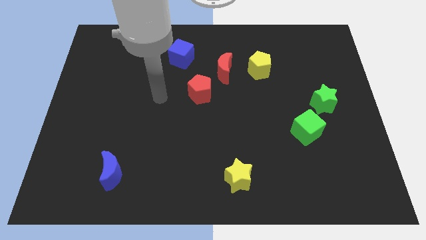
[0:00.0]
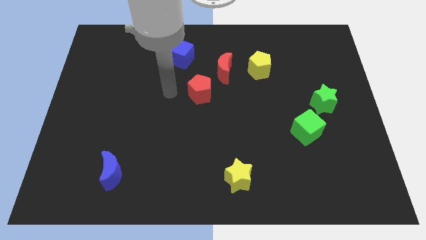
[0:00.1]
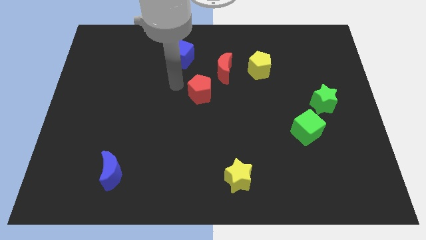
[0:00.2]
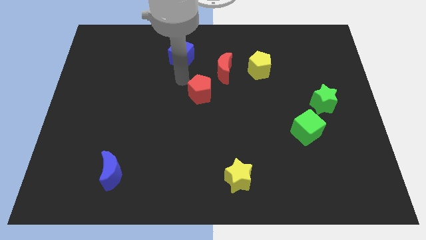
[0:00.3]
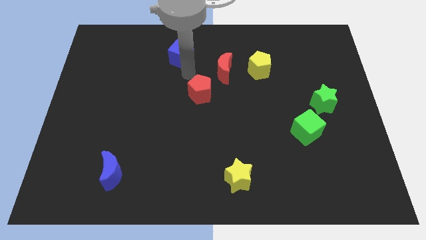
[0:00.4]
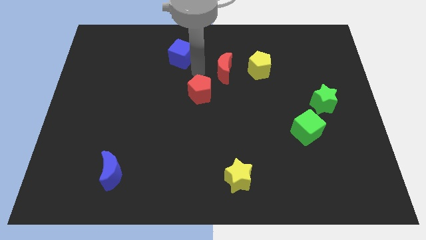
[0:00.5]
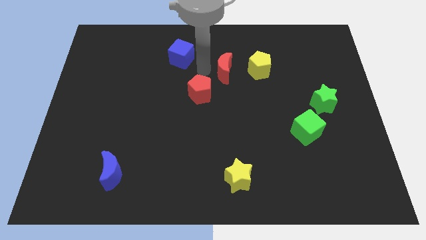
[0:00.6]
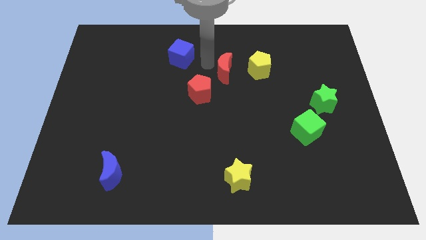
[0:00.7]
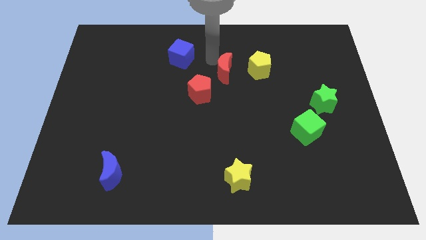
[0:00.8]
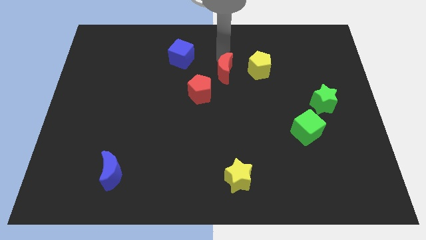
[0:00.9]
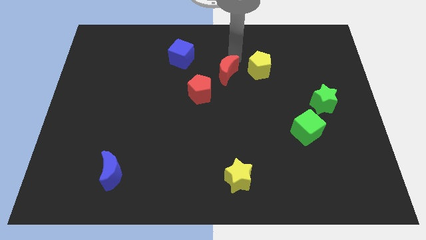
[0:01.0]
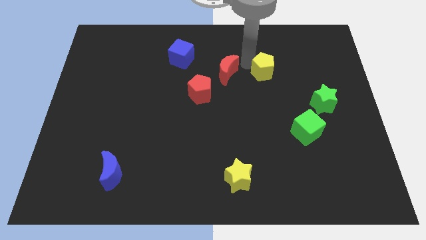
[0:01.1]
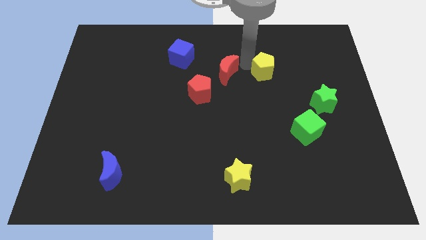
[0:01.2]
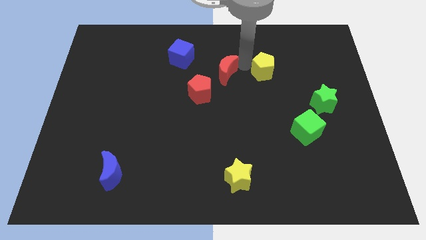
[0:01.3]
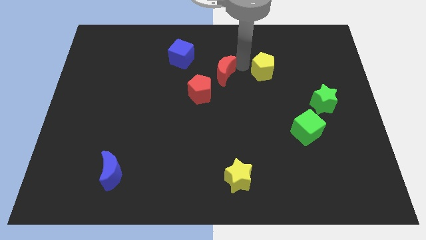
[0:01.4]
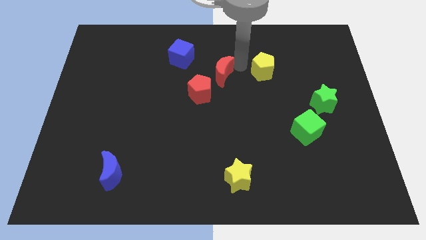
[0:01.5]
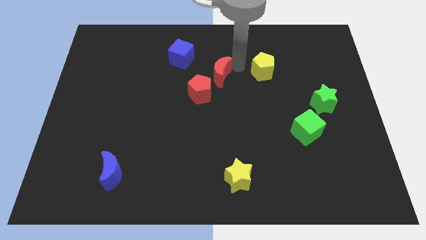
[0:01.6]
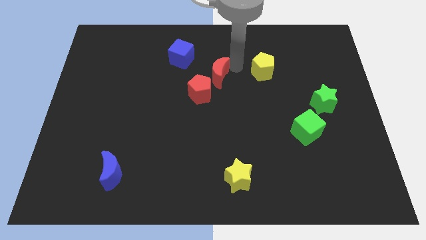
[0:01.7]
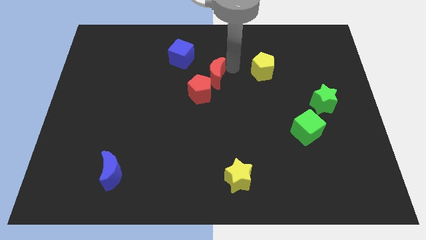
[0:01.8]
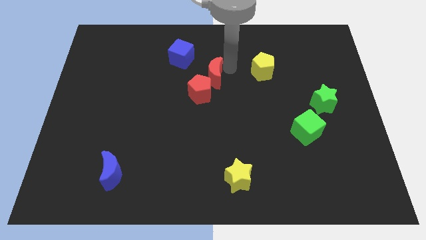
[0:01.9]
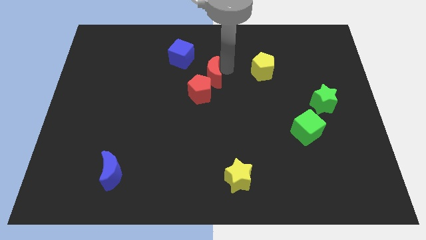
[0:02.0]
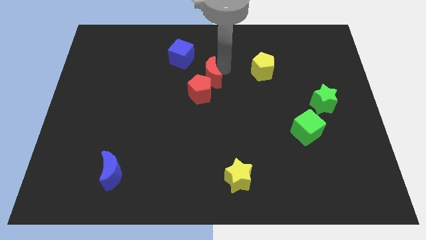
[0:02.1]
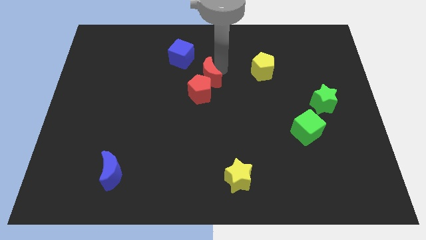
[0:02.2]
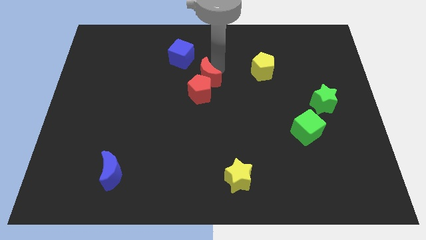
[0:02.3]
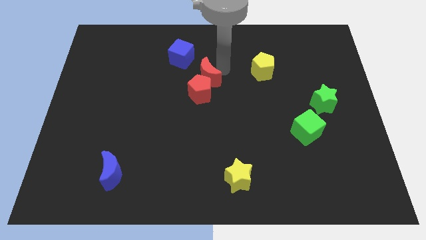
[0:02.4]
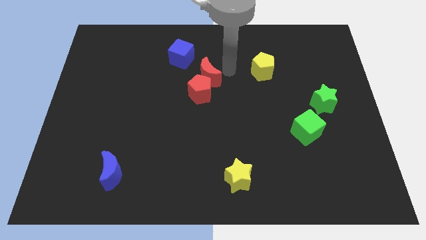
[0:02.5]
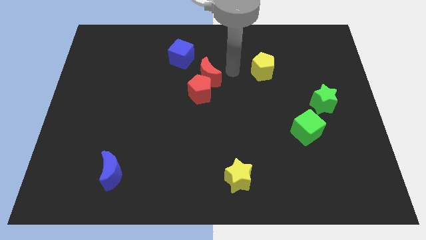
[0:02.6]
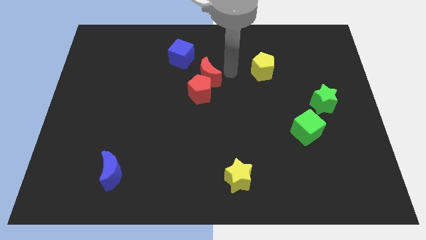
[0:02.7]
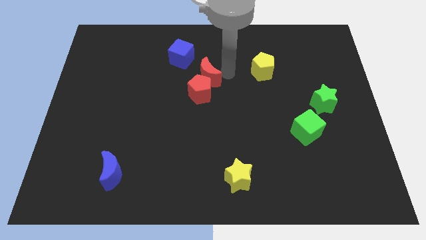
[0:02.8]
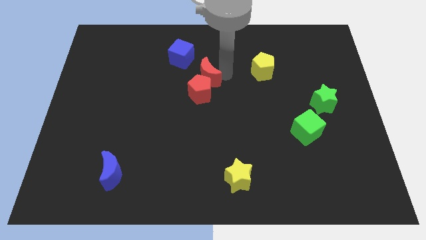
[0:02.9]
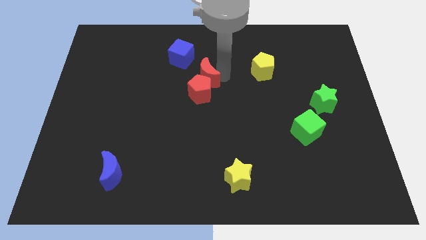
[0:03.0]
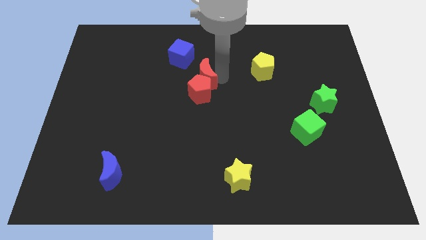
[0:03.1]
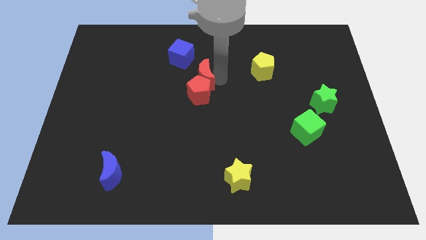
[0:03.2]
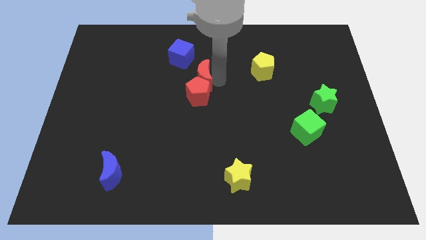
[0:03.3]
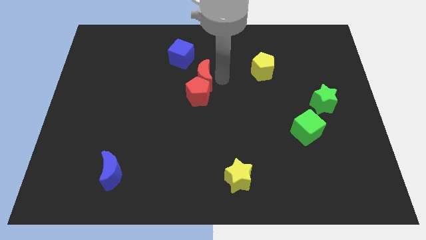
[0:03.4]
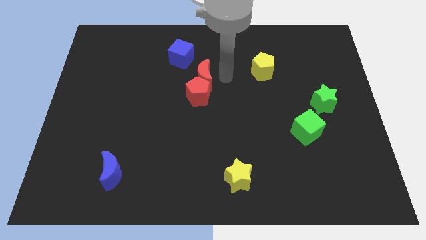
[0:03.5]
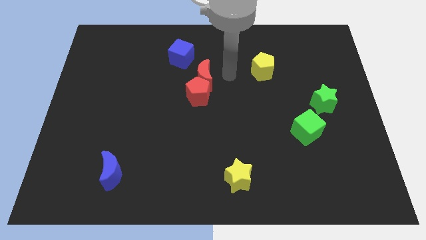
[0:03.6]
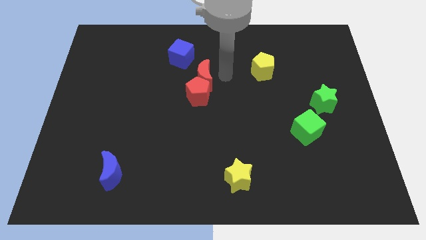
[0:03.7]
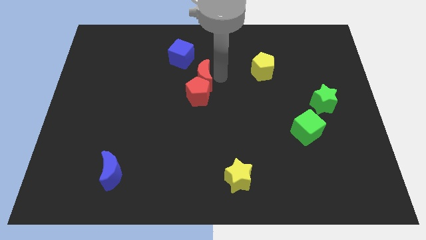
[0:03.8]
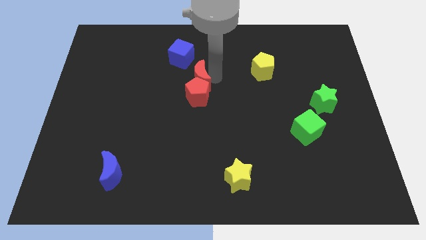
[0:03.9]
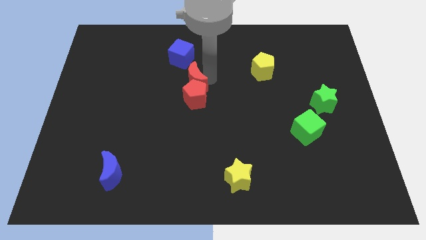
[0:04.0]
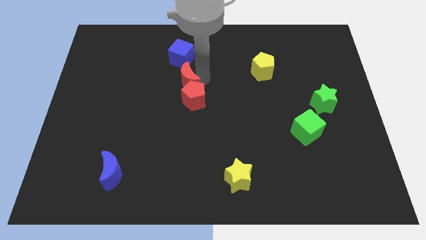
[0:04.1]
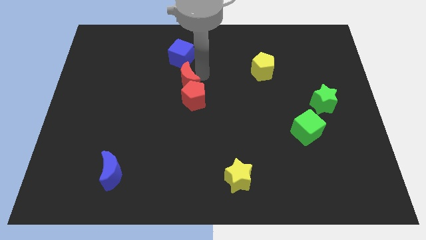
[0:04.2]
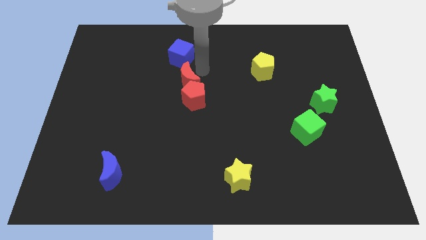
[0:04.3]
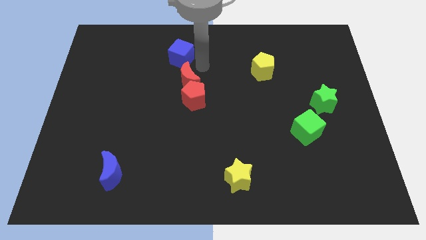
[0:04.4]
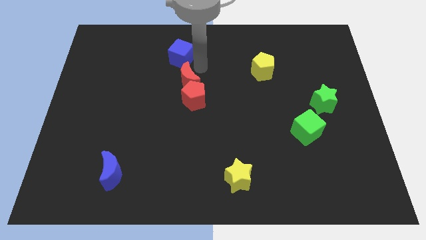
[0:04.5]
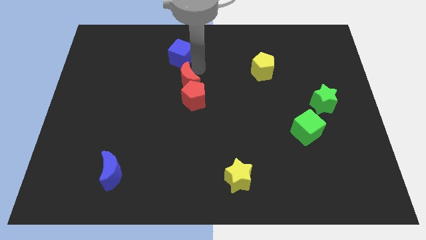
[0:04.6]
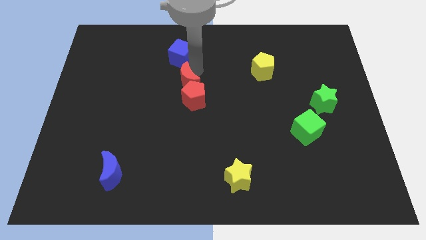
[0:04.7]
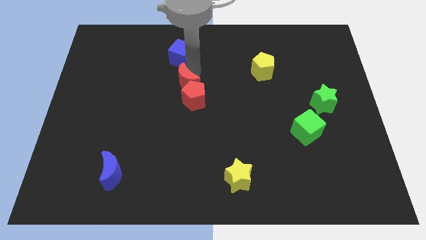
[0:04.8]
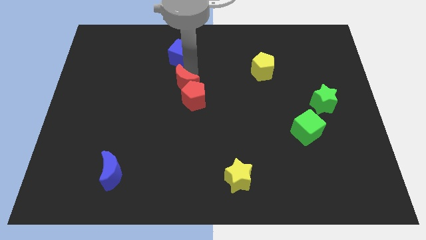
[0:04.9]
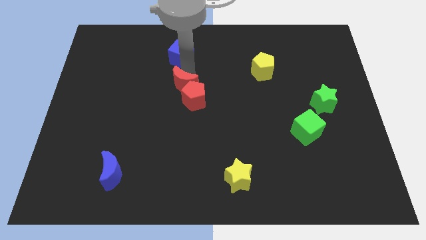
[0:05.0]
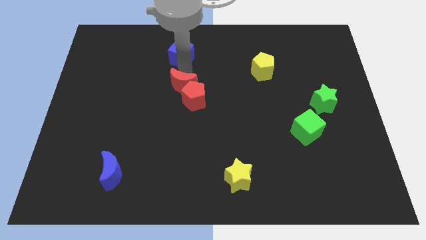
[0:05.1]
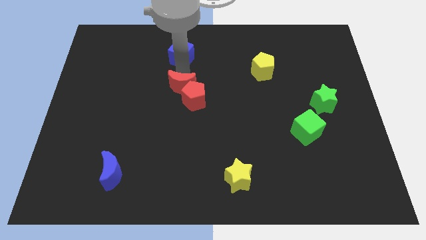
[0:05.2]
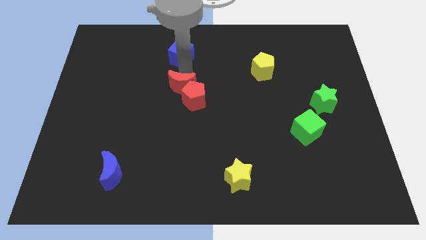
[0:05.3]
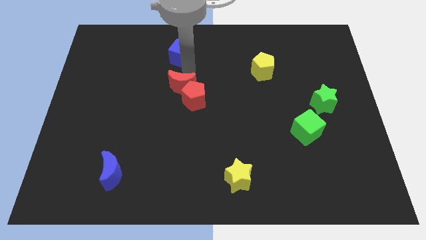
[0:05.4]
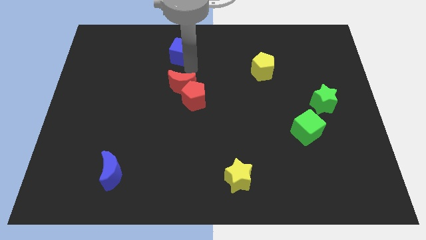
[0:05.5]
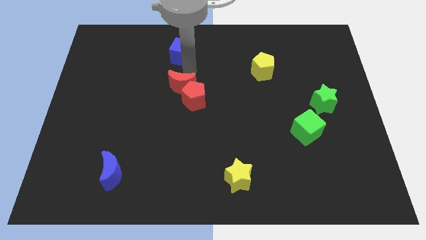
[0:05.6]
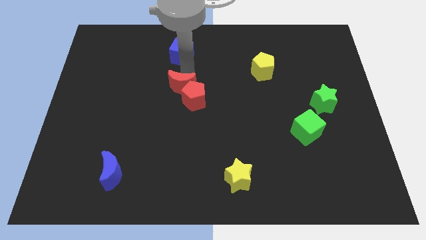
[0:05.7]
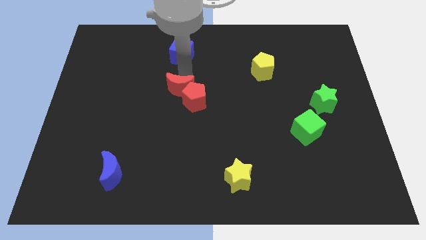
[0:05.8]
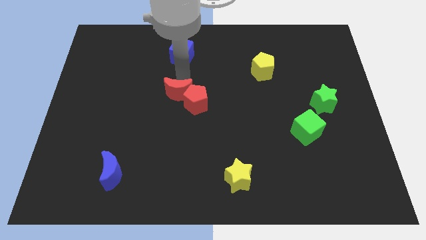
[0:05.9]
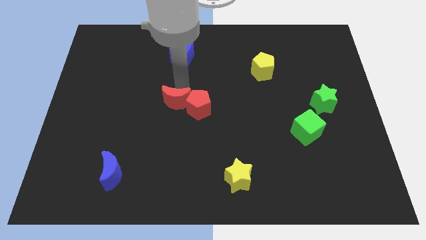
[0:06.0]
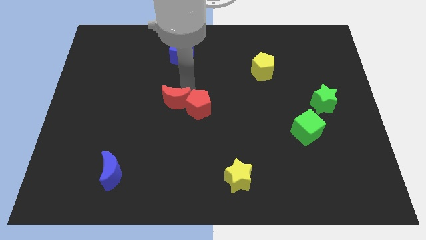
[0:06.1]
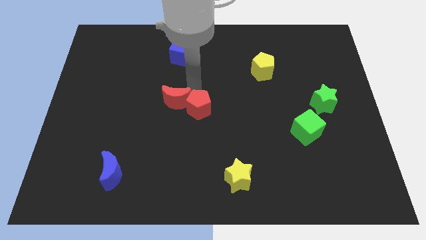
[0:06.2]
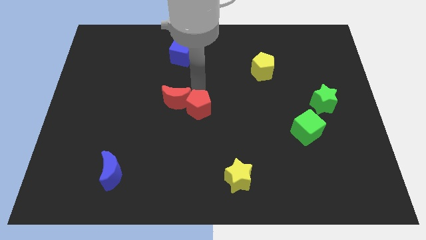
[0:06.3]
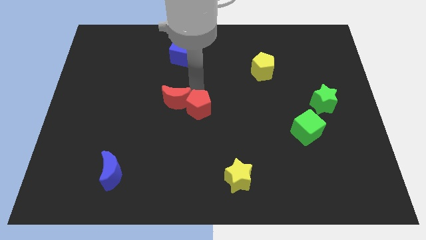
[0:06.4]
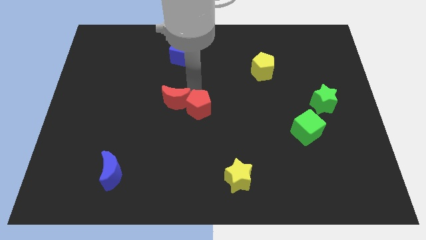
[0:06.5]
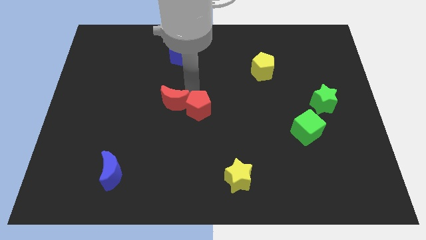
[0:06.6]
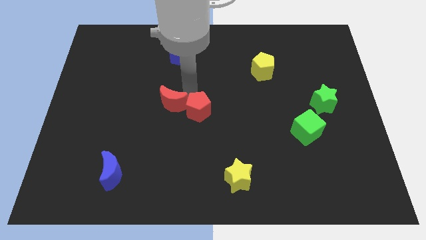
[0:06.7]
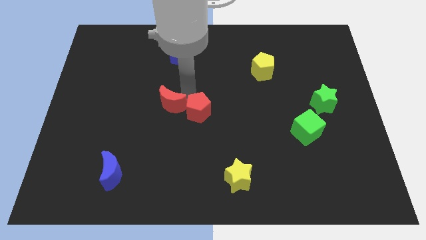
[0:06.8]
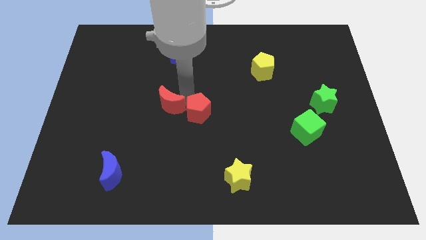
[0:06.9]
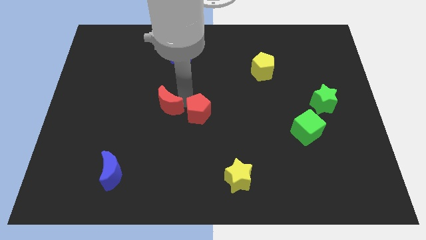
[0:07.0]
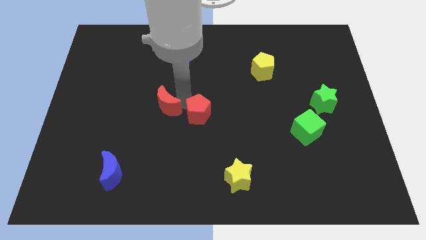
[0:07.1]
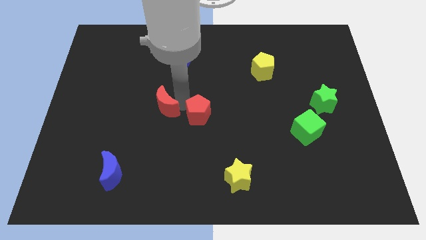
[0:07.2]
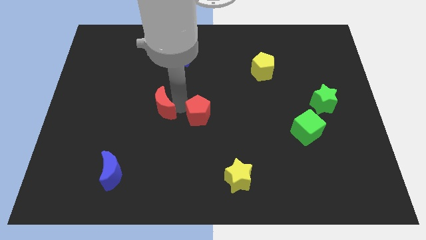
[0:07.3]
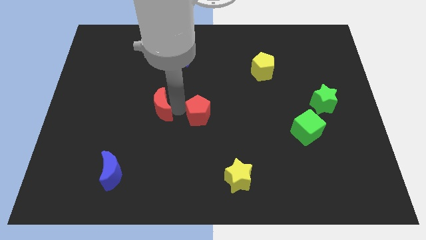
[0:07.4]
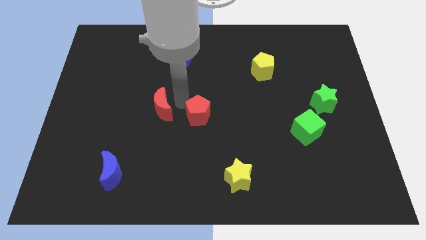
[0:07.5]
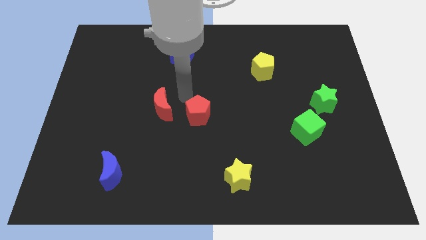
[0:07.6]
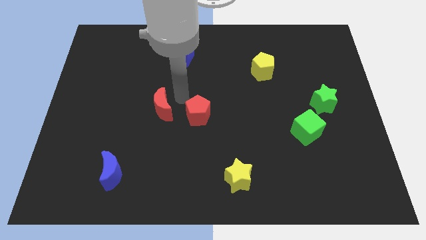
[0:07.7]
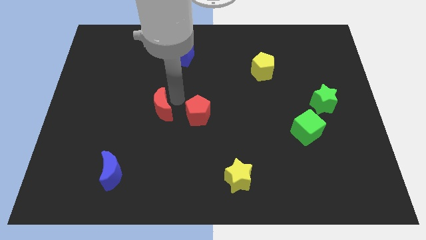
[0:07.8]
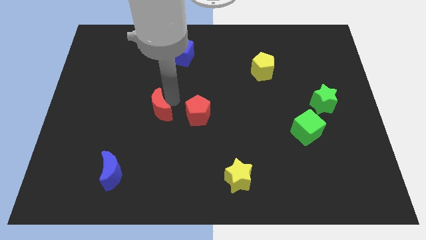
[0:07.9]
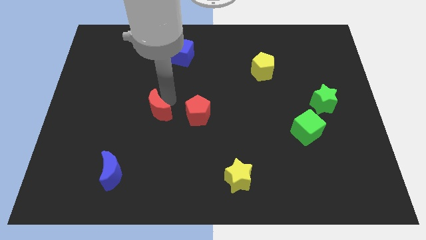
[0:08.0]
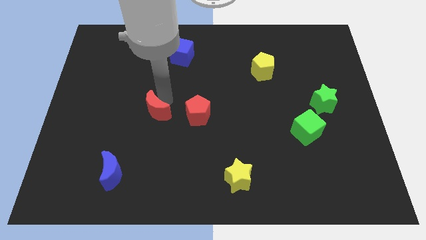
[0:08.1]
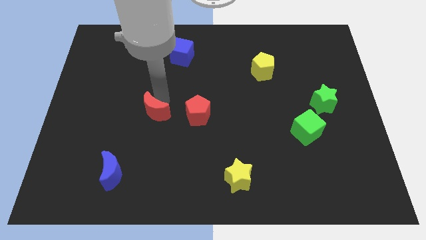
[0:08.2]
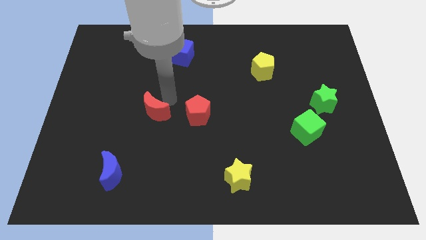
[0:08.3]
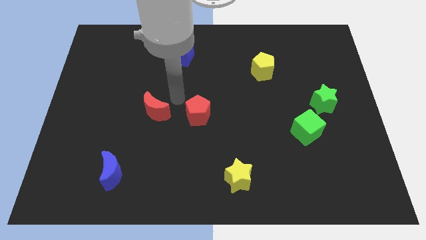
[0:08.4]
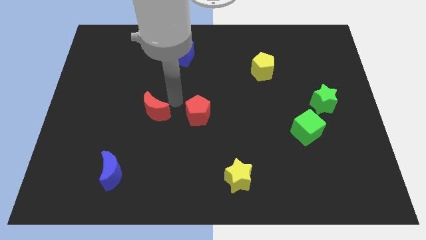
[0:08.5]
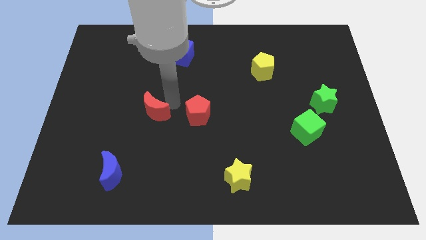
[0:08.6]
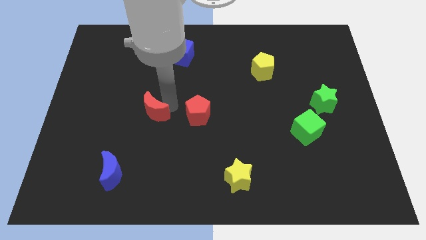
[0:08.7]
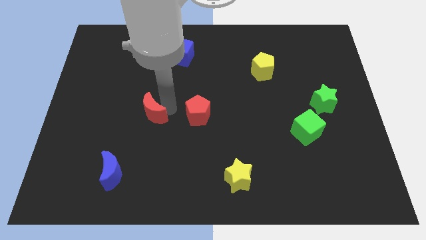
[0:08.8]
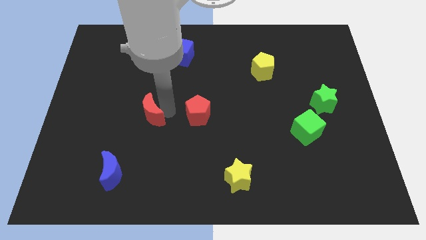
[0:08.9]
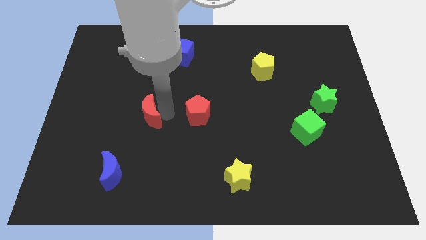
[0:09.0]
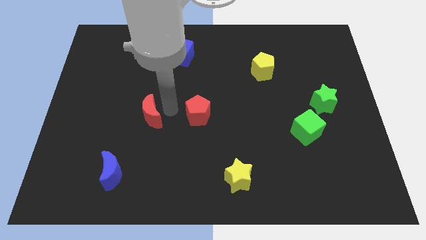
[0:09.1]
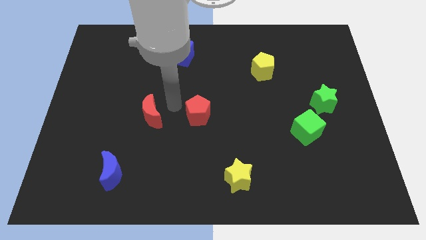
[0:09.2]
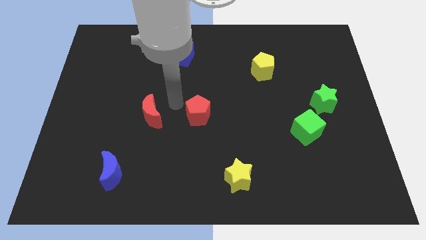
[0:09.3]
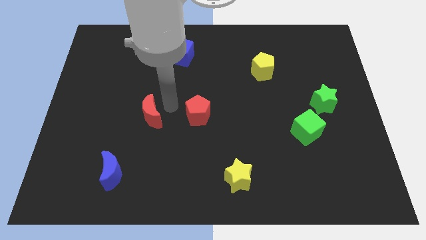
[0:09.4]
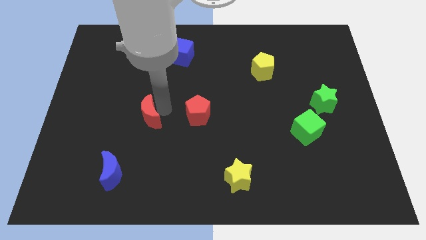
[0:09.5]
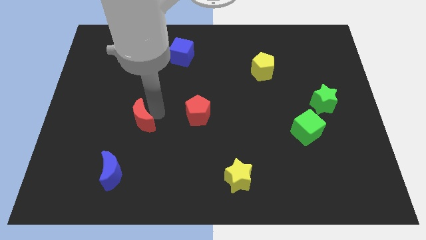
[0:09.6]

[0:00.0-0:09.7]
put the red moon to the top side of the blue moon
